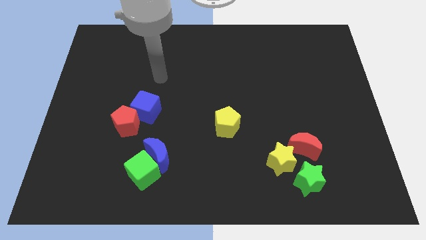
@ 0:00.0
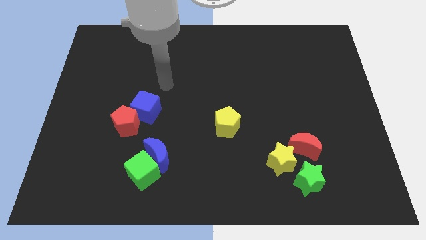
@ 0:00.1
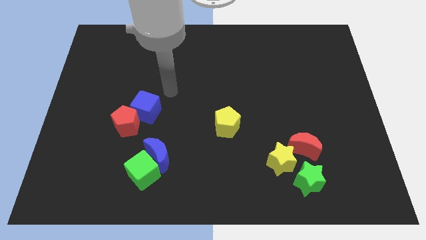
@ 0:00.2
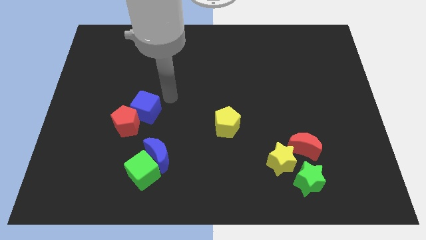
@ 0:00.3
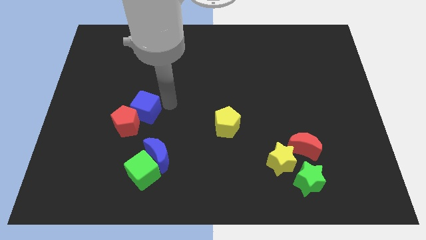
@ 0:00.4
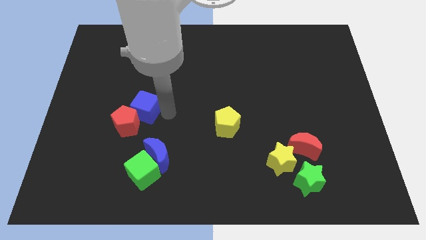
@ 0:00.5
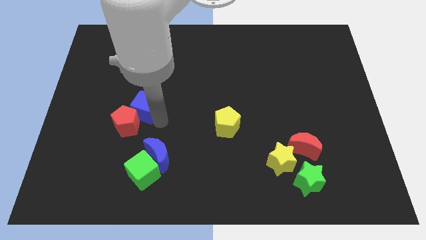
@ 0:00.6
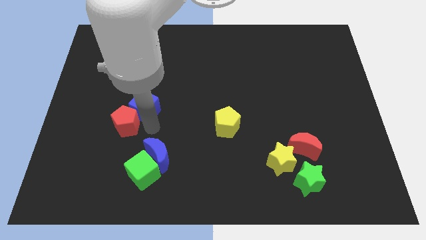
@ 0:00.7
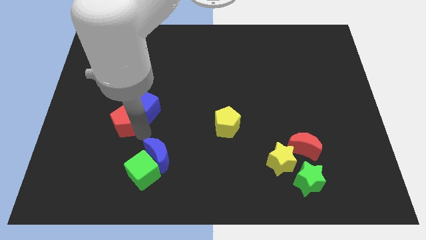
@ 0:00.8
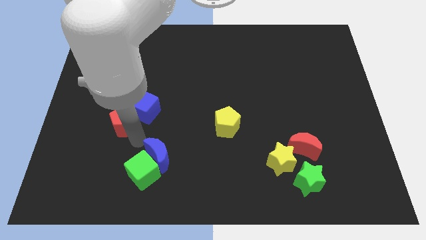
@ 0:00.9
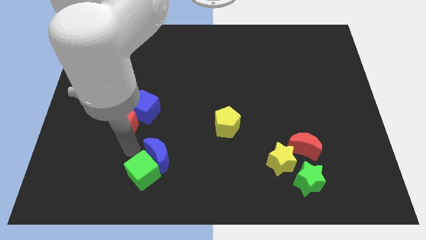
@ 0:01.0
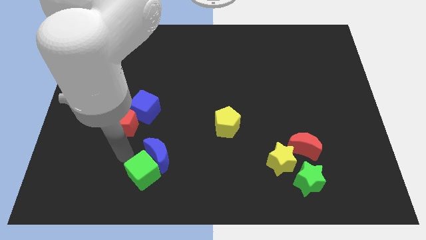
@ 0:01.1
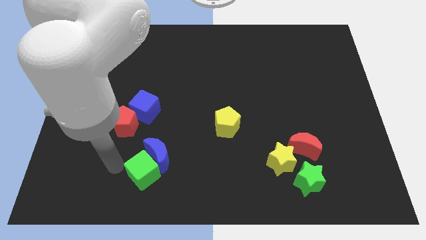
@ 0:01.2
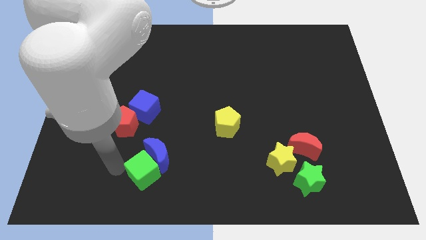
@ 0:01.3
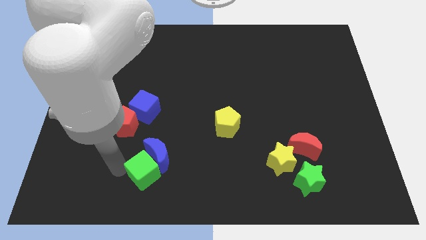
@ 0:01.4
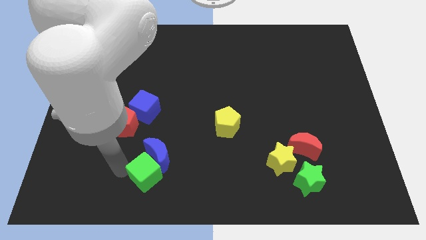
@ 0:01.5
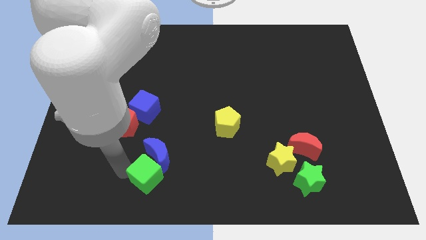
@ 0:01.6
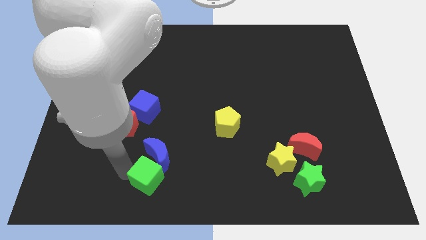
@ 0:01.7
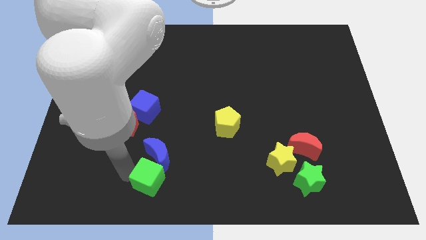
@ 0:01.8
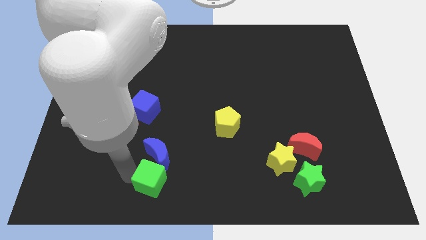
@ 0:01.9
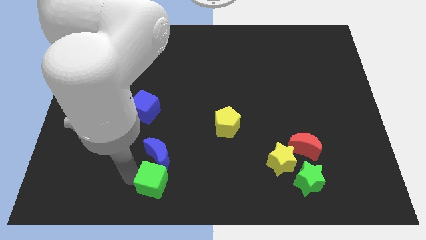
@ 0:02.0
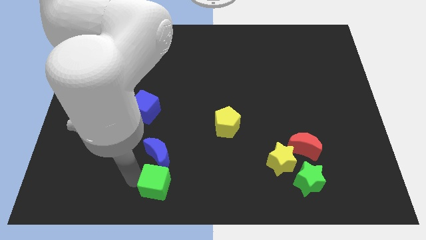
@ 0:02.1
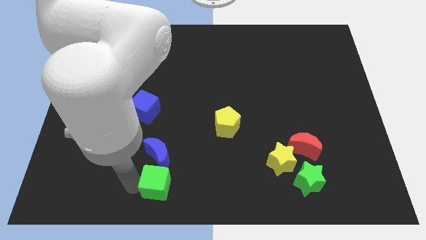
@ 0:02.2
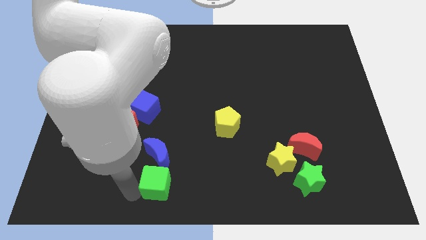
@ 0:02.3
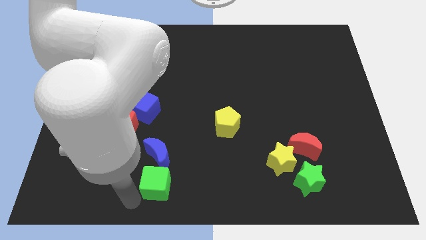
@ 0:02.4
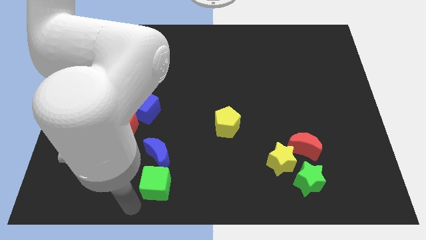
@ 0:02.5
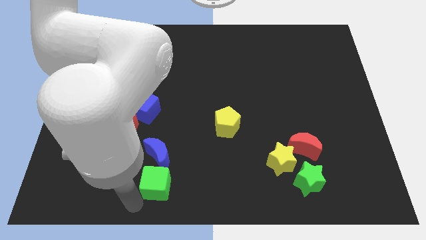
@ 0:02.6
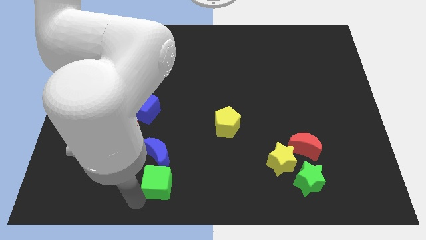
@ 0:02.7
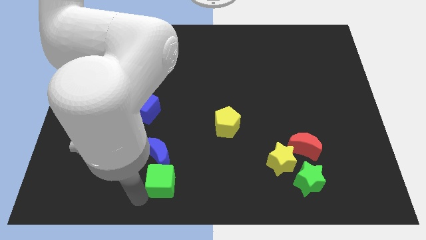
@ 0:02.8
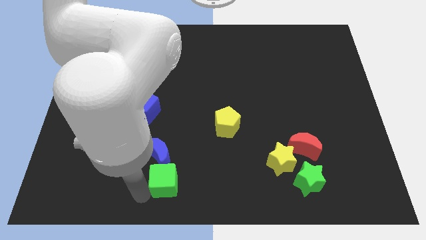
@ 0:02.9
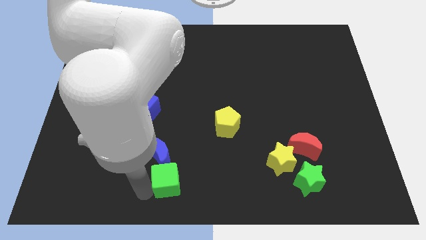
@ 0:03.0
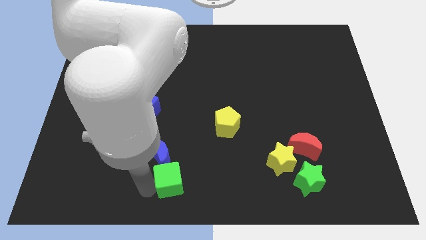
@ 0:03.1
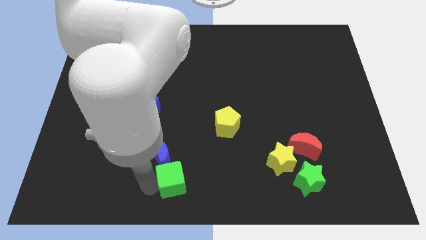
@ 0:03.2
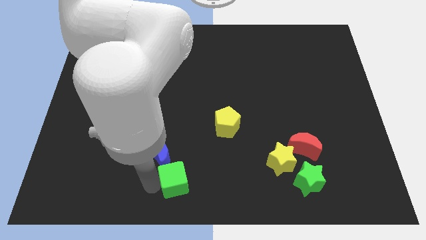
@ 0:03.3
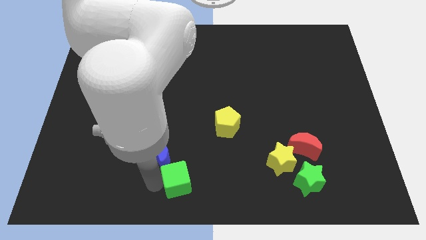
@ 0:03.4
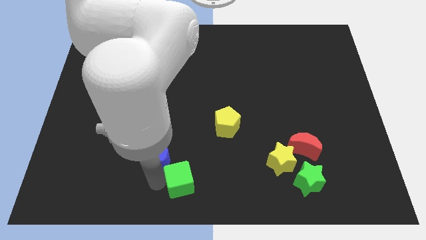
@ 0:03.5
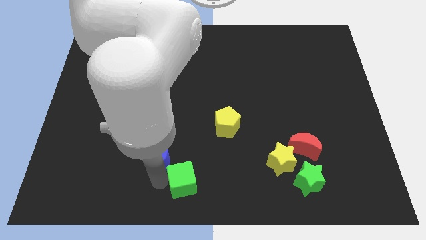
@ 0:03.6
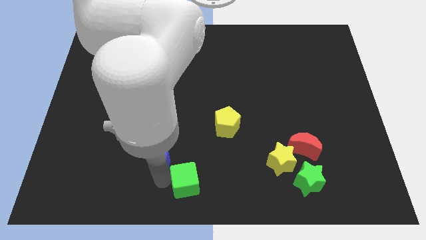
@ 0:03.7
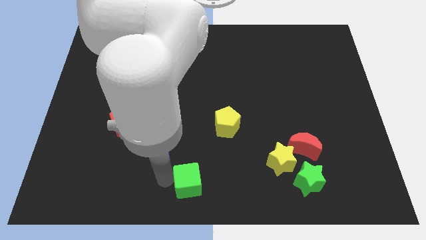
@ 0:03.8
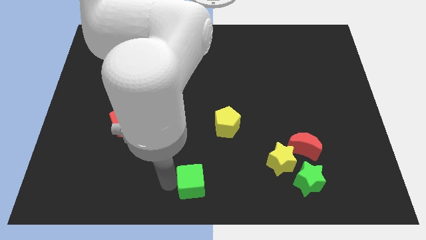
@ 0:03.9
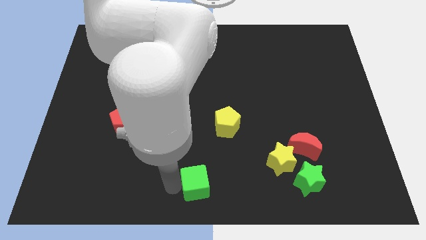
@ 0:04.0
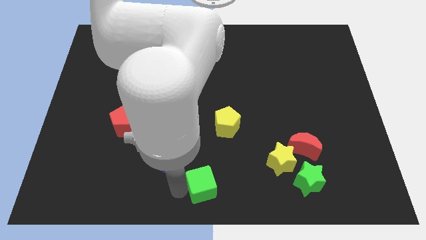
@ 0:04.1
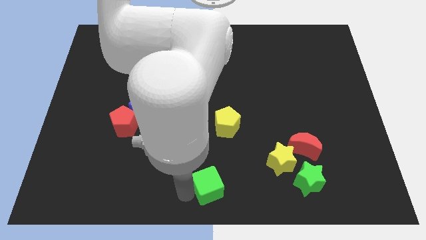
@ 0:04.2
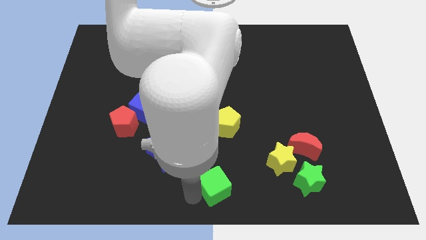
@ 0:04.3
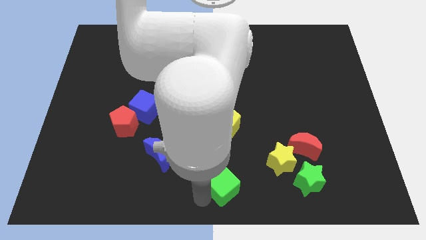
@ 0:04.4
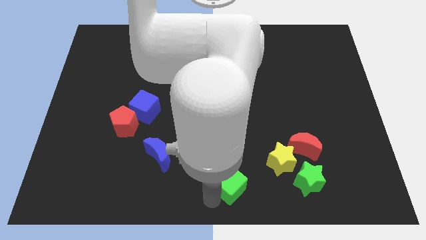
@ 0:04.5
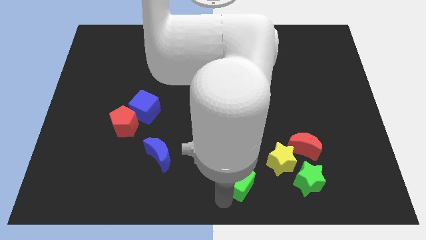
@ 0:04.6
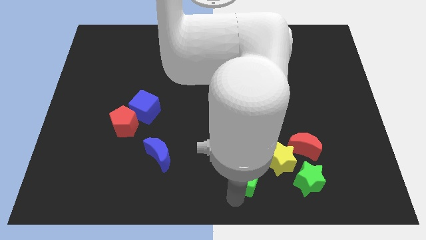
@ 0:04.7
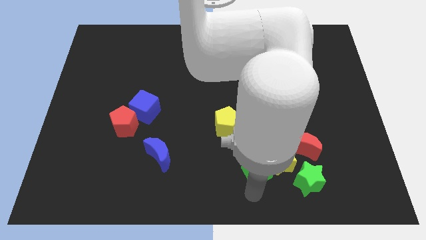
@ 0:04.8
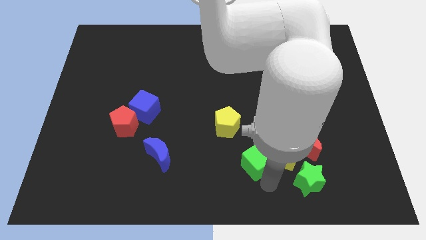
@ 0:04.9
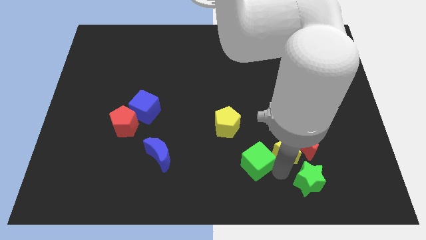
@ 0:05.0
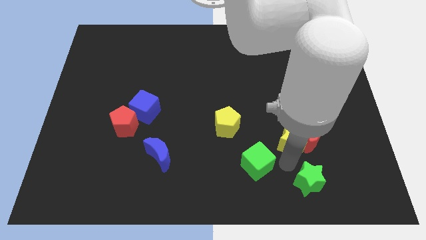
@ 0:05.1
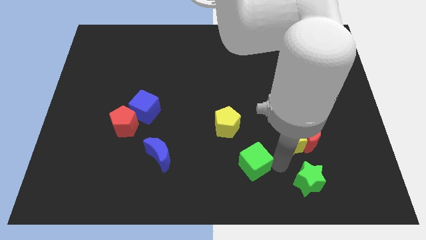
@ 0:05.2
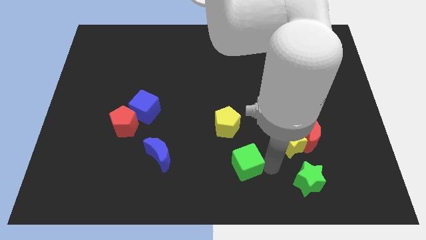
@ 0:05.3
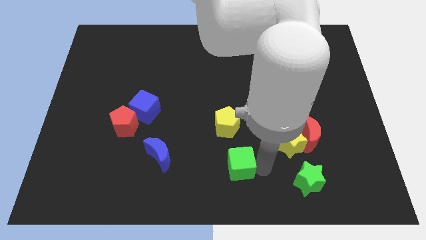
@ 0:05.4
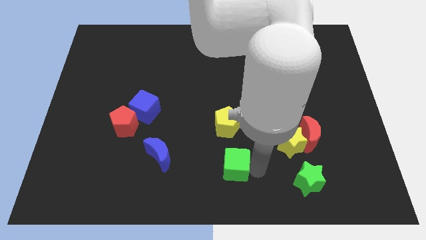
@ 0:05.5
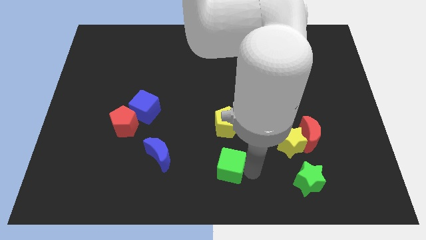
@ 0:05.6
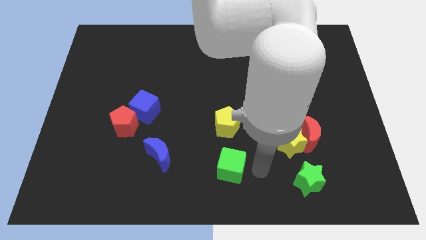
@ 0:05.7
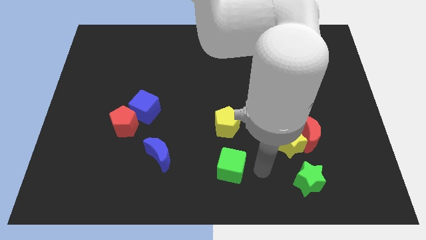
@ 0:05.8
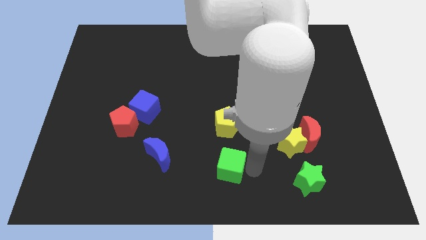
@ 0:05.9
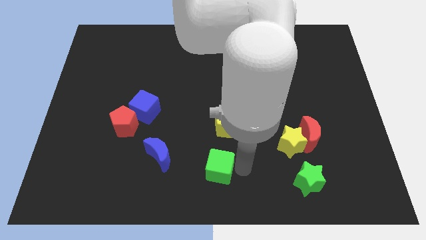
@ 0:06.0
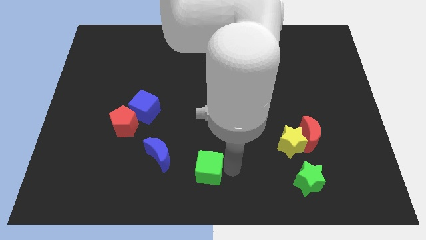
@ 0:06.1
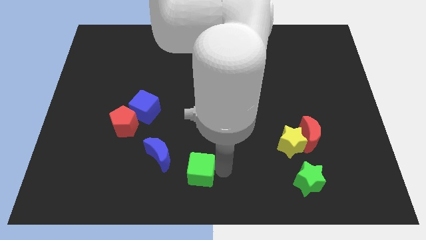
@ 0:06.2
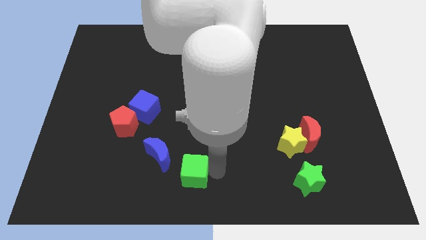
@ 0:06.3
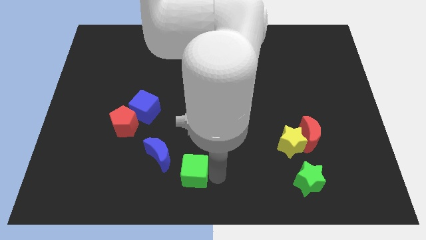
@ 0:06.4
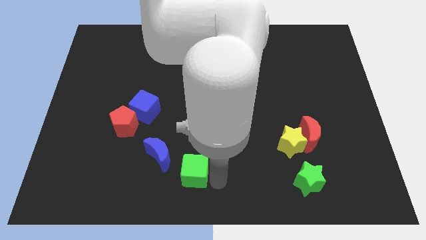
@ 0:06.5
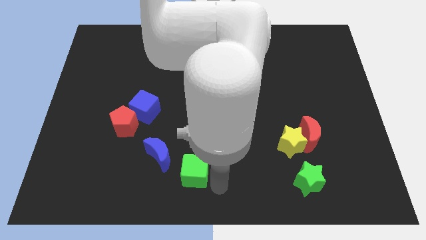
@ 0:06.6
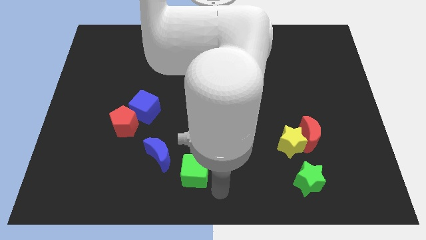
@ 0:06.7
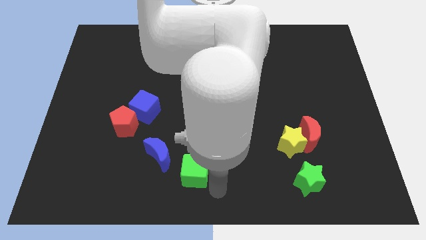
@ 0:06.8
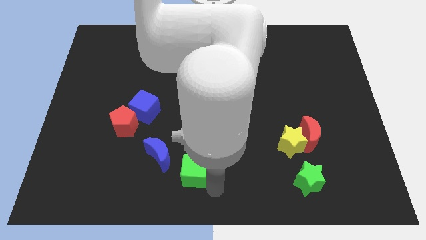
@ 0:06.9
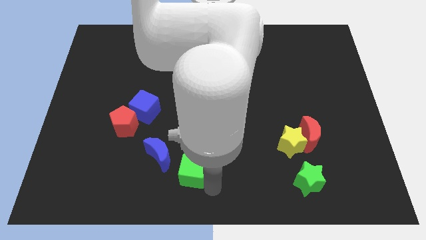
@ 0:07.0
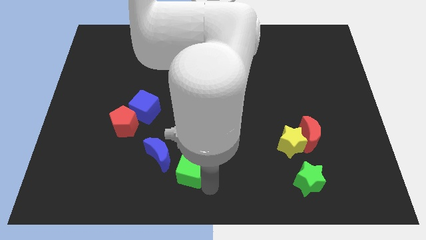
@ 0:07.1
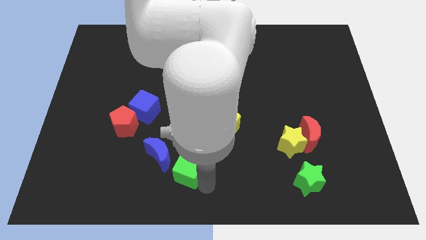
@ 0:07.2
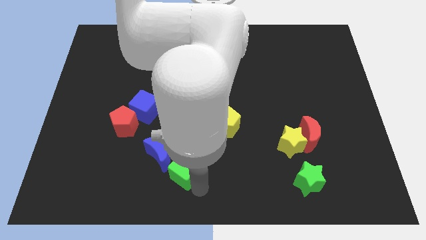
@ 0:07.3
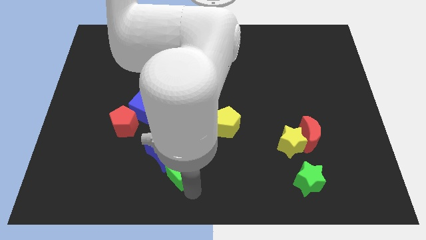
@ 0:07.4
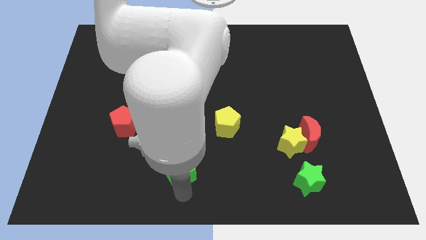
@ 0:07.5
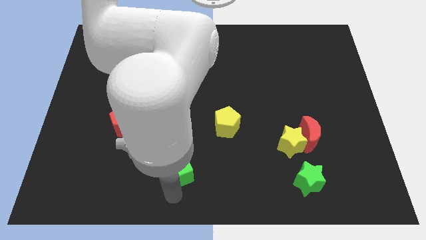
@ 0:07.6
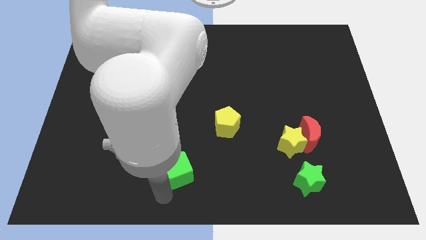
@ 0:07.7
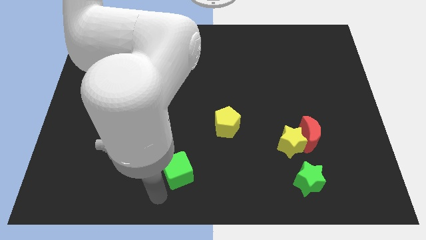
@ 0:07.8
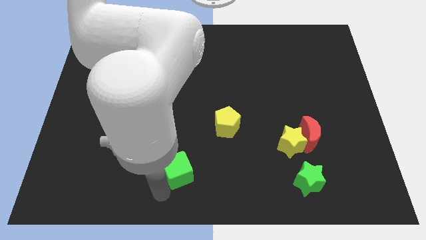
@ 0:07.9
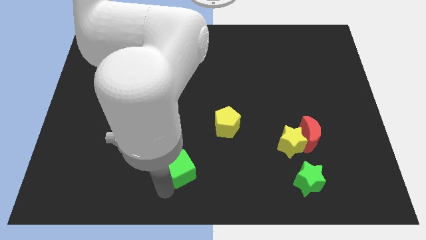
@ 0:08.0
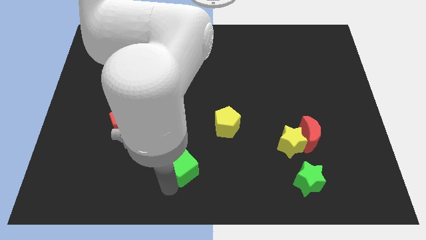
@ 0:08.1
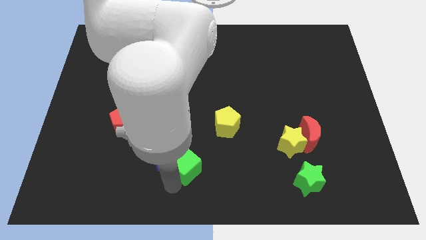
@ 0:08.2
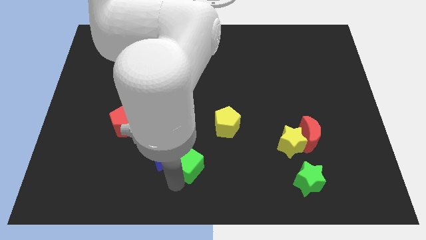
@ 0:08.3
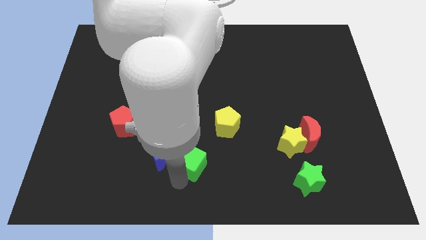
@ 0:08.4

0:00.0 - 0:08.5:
move the green cube to the bottom left of the yellow pentagon

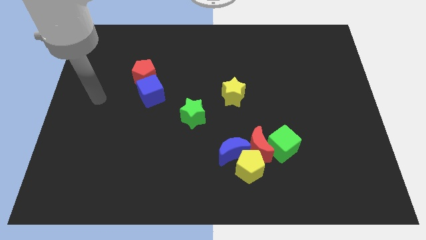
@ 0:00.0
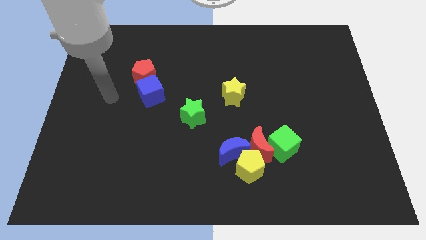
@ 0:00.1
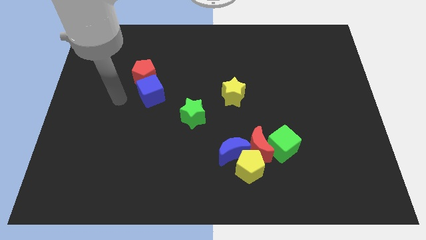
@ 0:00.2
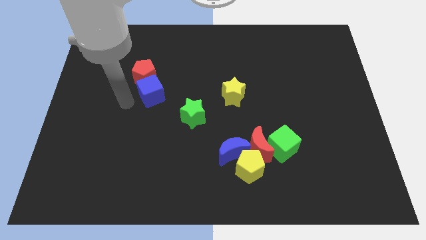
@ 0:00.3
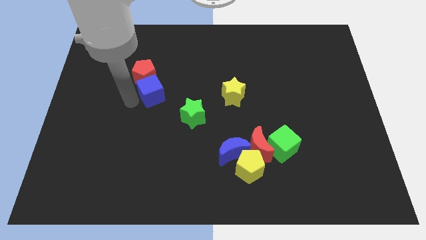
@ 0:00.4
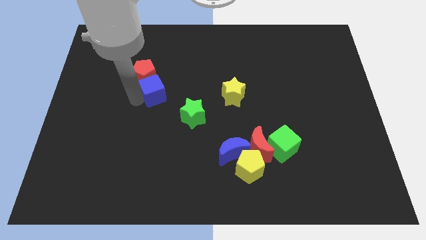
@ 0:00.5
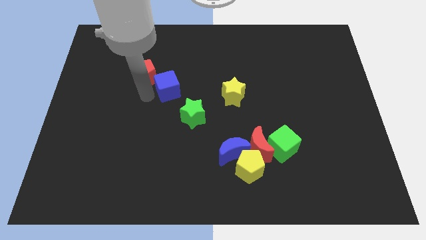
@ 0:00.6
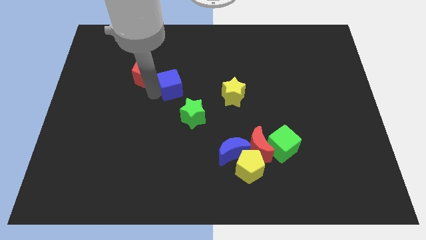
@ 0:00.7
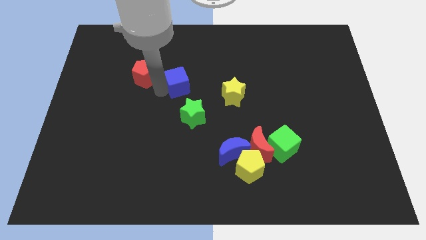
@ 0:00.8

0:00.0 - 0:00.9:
slide the blue cube to the top side of the green star
